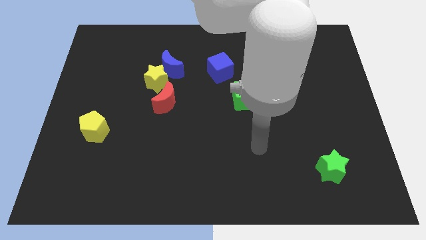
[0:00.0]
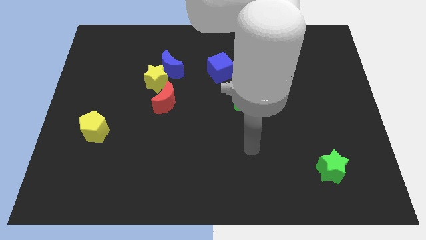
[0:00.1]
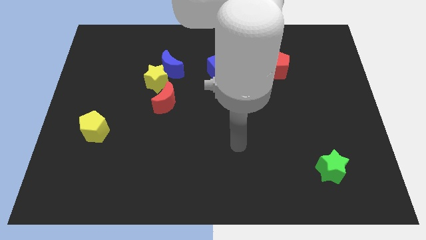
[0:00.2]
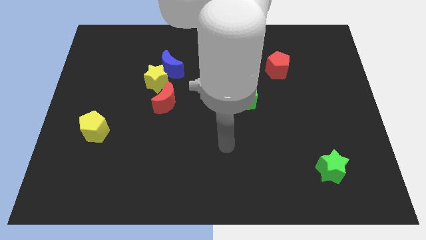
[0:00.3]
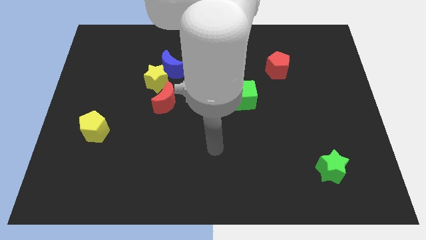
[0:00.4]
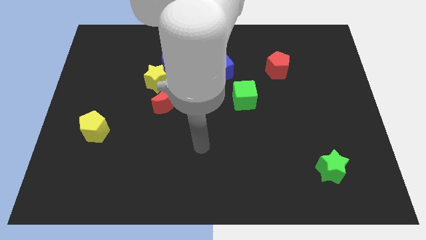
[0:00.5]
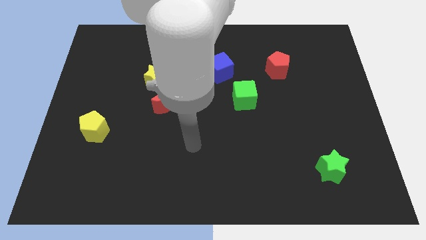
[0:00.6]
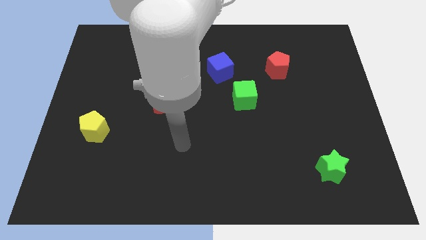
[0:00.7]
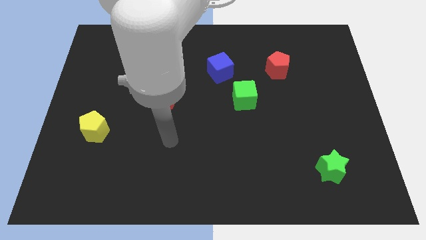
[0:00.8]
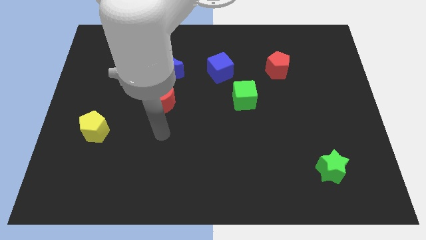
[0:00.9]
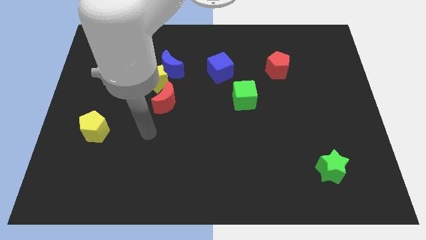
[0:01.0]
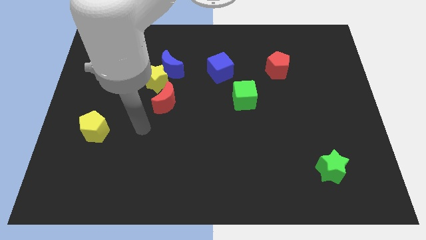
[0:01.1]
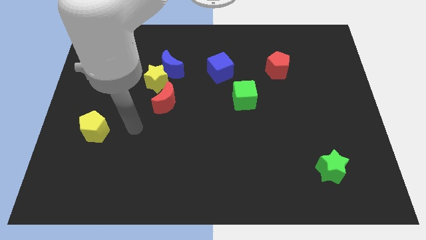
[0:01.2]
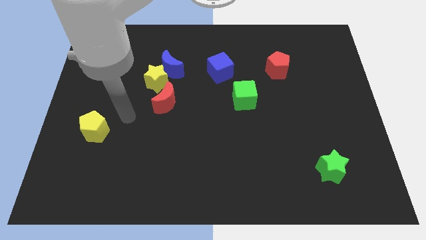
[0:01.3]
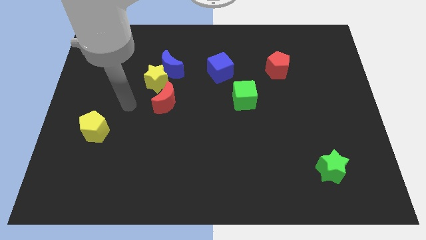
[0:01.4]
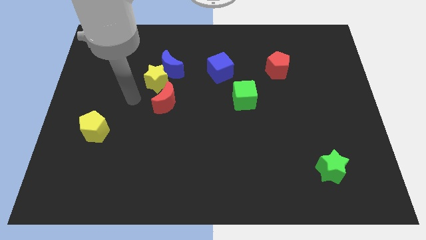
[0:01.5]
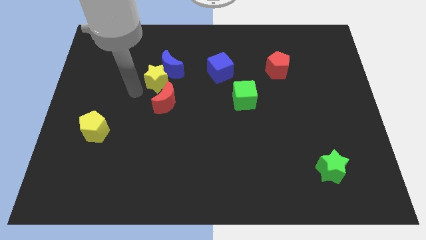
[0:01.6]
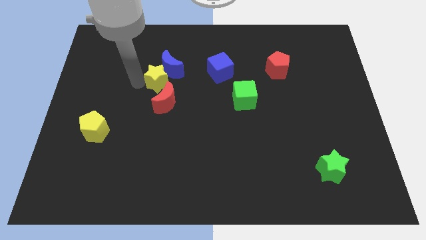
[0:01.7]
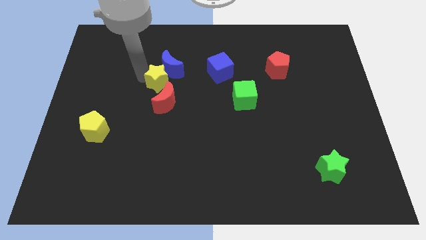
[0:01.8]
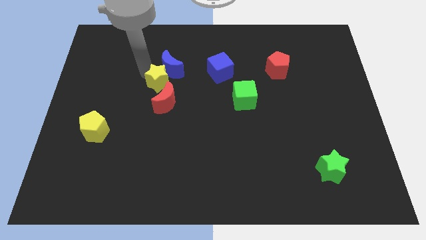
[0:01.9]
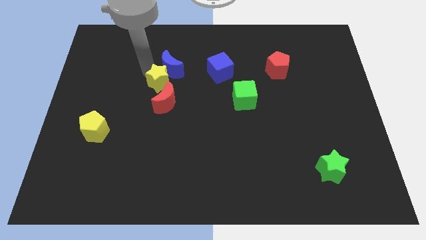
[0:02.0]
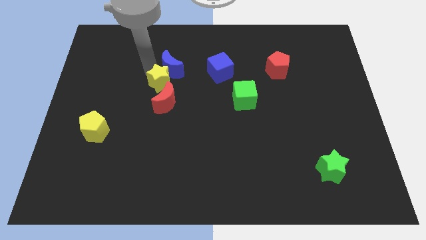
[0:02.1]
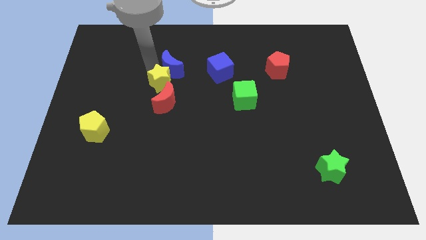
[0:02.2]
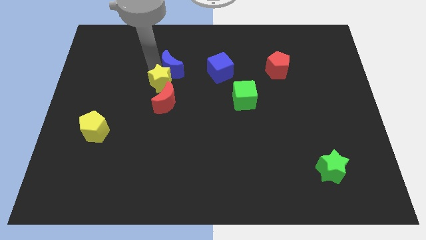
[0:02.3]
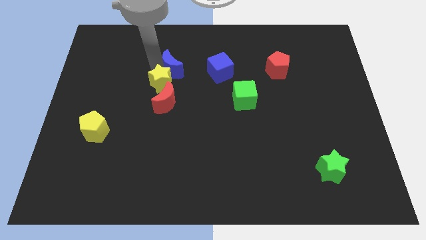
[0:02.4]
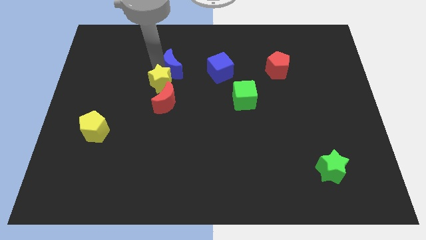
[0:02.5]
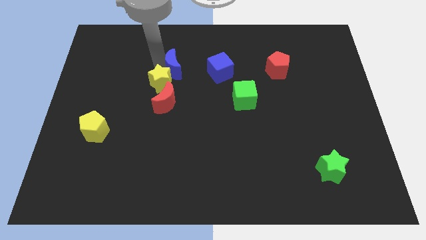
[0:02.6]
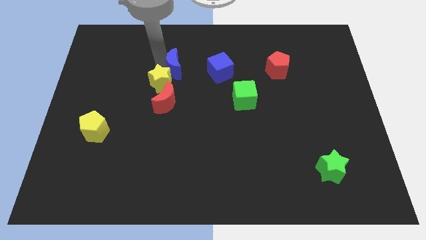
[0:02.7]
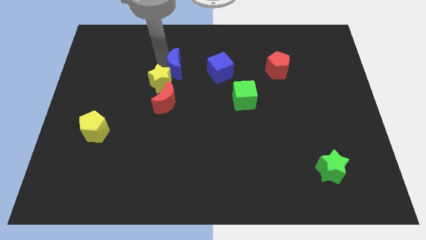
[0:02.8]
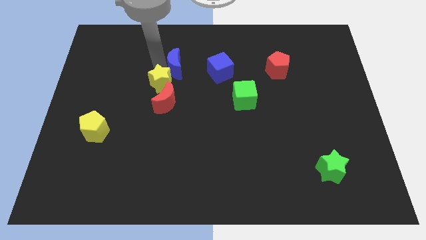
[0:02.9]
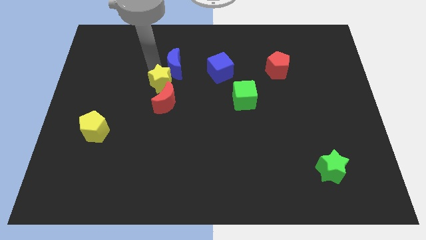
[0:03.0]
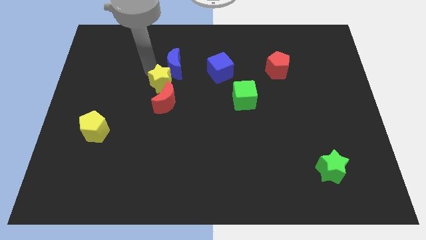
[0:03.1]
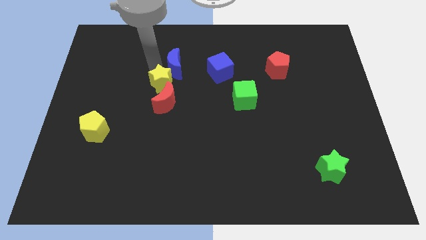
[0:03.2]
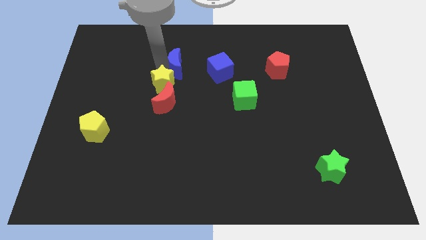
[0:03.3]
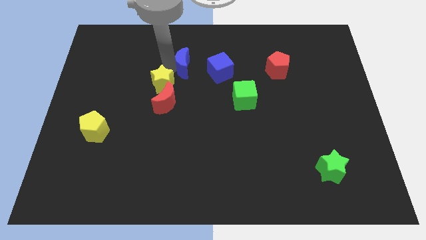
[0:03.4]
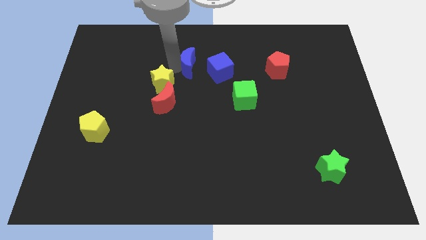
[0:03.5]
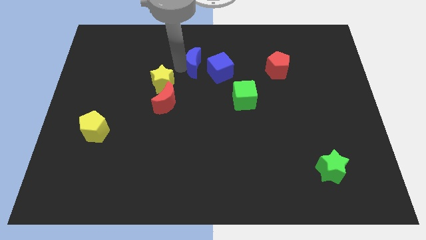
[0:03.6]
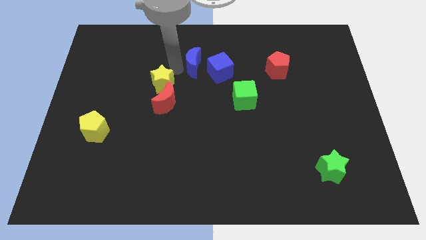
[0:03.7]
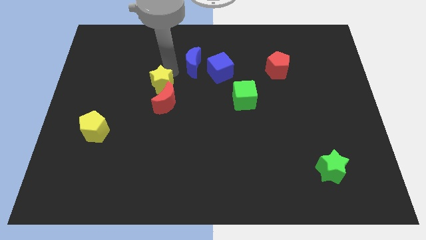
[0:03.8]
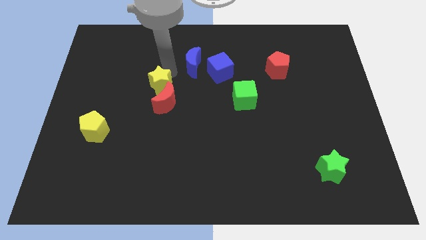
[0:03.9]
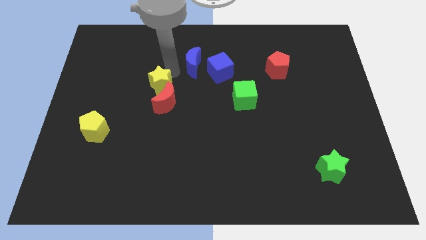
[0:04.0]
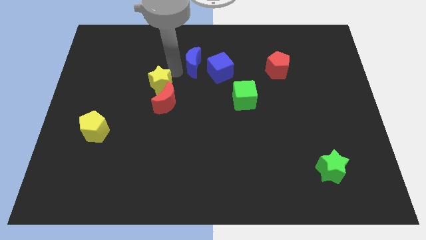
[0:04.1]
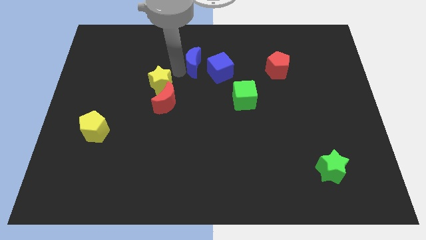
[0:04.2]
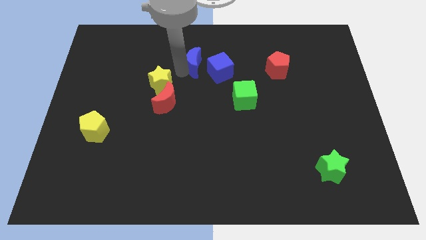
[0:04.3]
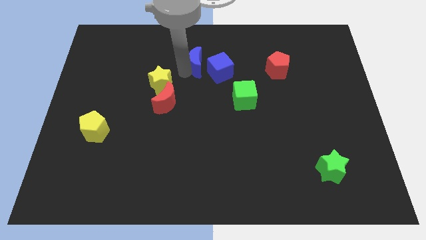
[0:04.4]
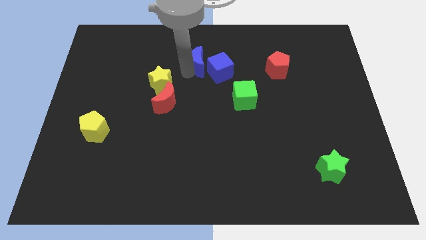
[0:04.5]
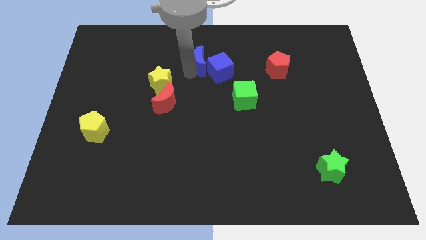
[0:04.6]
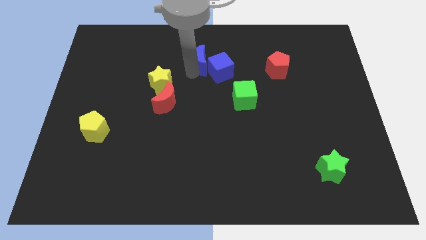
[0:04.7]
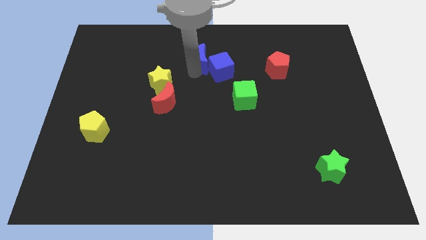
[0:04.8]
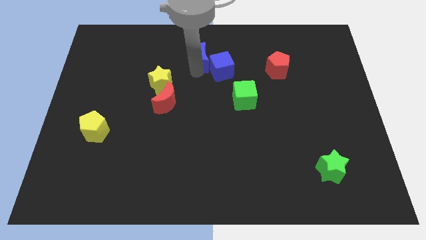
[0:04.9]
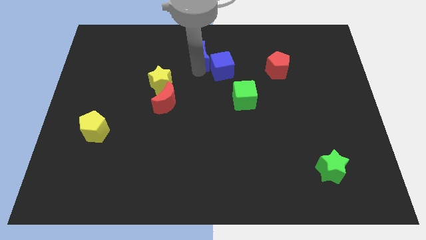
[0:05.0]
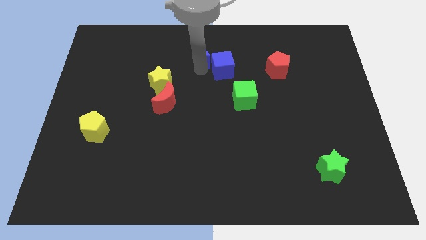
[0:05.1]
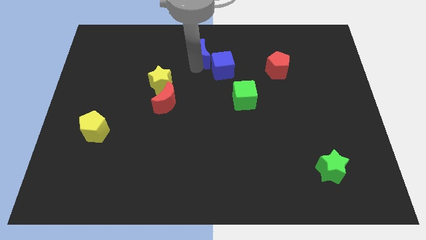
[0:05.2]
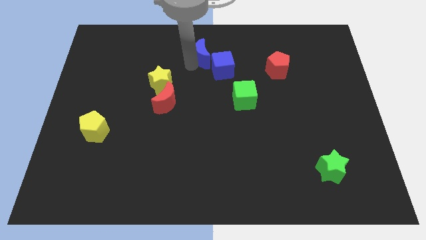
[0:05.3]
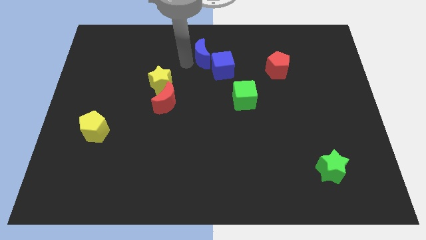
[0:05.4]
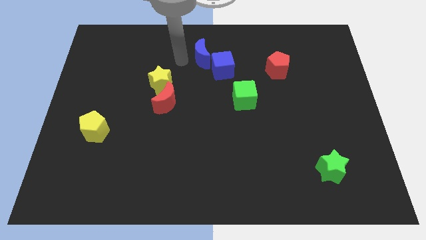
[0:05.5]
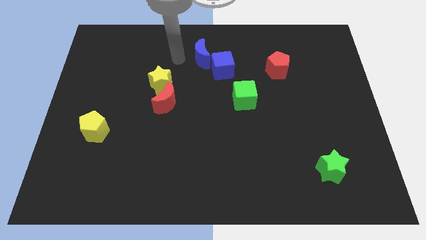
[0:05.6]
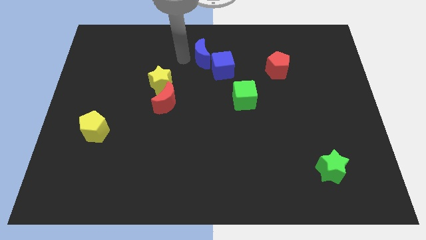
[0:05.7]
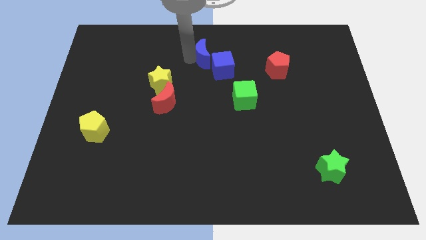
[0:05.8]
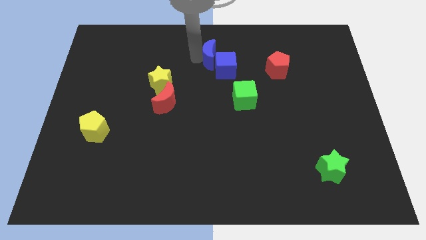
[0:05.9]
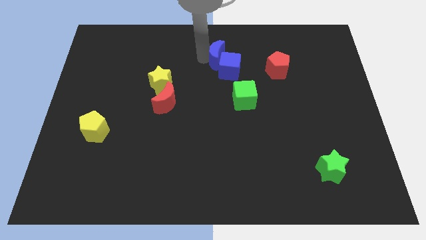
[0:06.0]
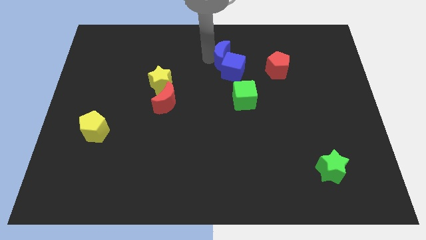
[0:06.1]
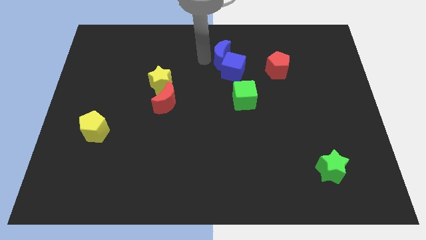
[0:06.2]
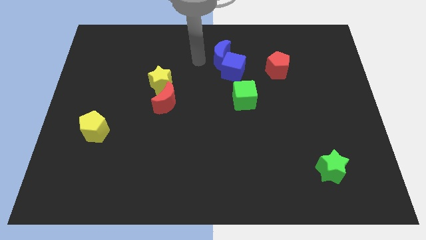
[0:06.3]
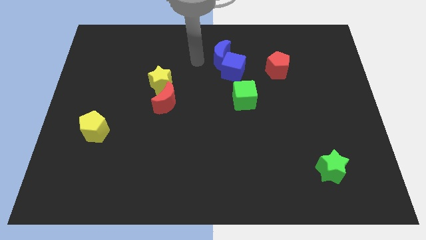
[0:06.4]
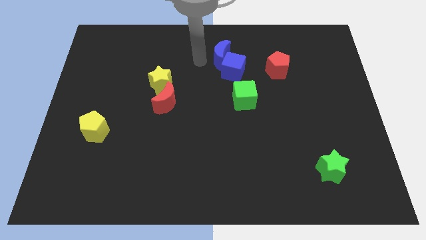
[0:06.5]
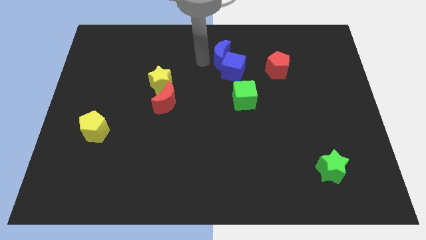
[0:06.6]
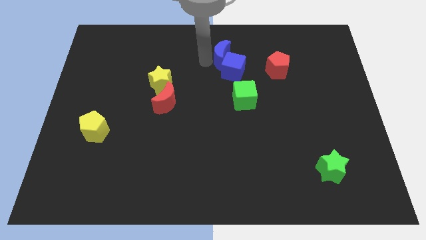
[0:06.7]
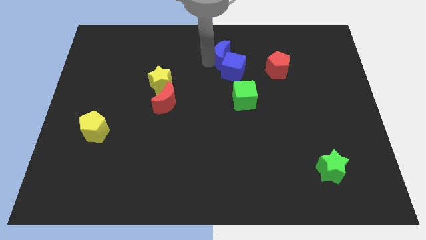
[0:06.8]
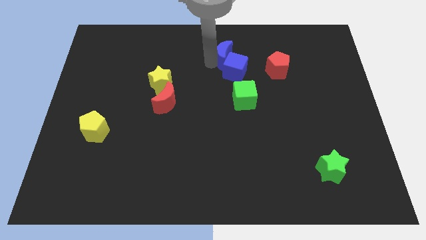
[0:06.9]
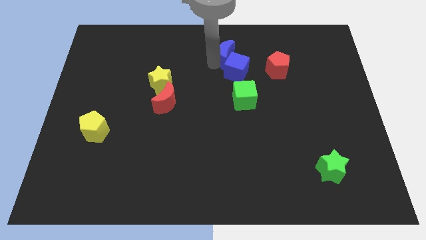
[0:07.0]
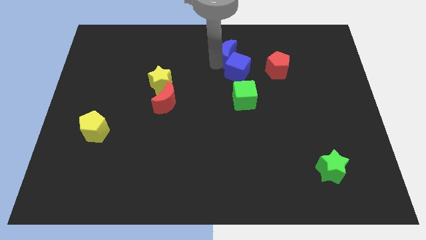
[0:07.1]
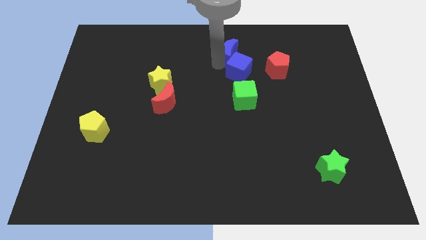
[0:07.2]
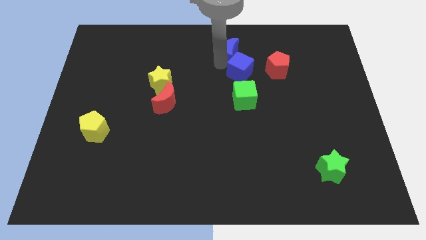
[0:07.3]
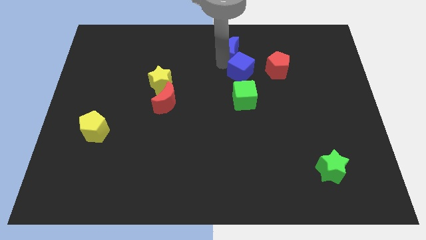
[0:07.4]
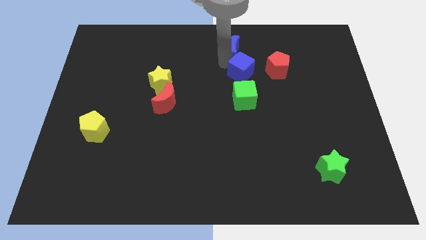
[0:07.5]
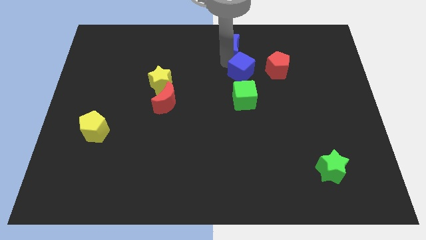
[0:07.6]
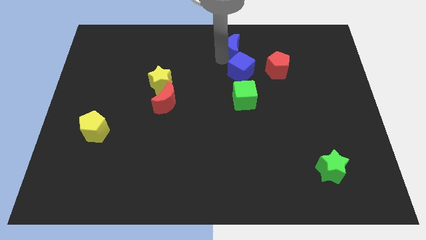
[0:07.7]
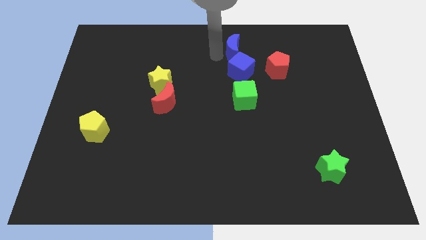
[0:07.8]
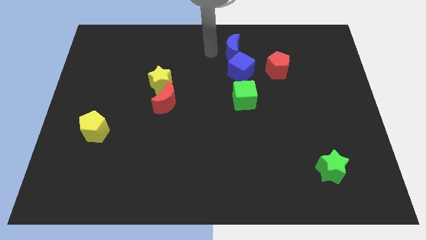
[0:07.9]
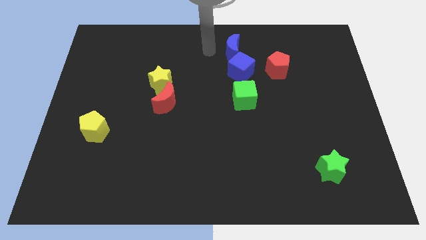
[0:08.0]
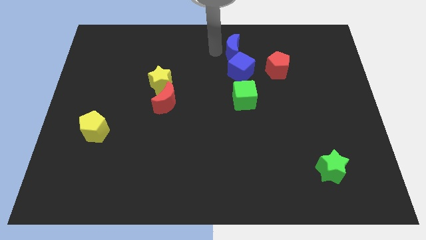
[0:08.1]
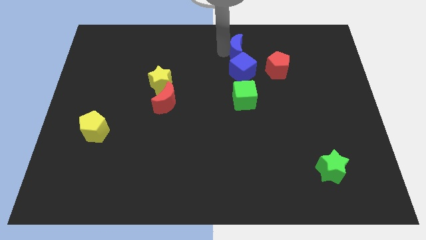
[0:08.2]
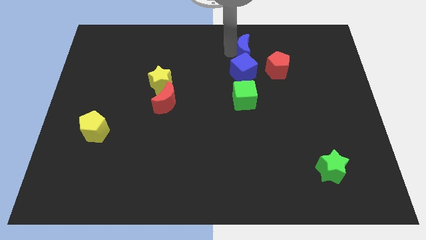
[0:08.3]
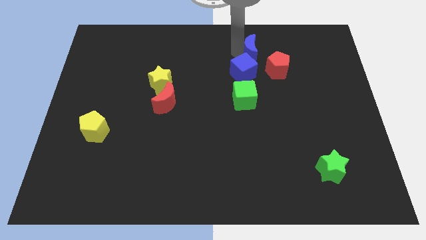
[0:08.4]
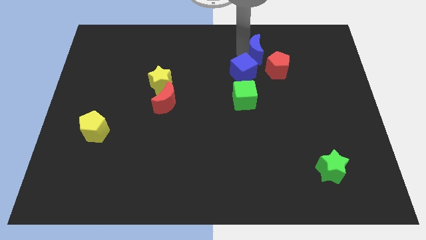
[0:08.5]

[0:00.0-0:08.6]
push the blue moon right
